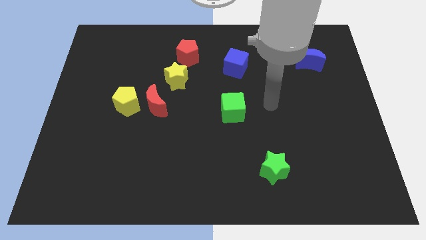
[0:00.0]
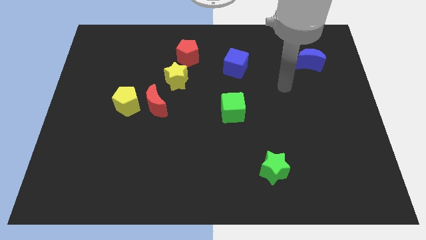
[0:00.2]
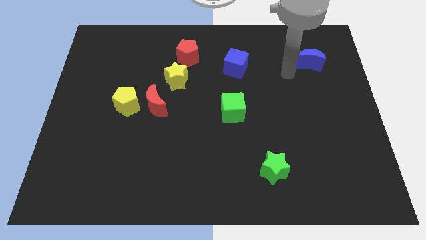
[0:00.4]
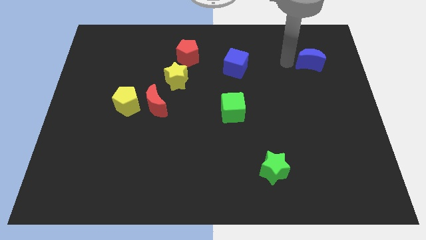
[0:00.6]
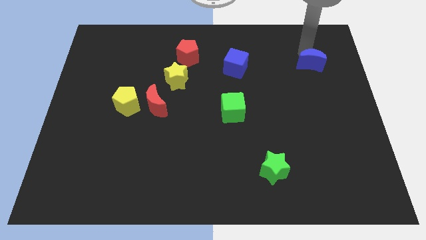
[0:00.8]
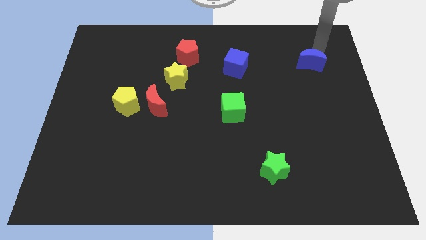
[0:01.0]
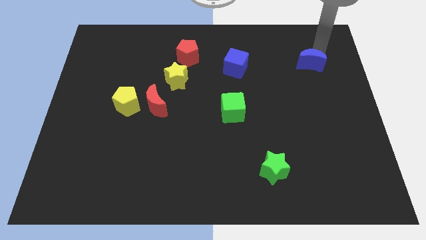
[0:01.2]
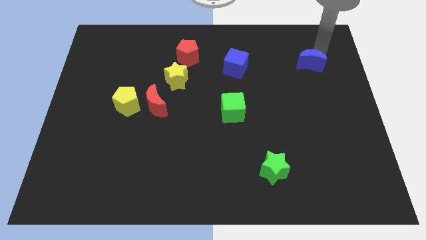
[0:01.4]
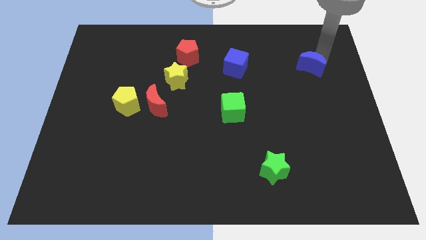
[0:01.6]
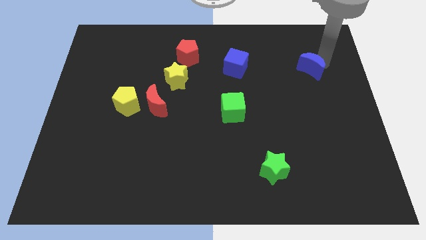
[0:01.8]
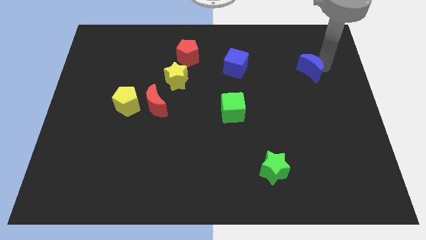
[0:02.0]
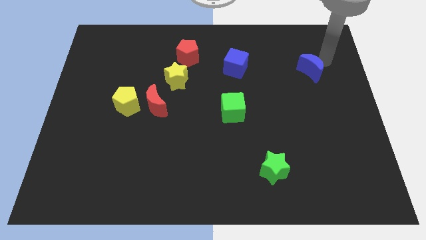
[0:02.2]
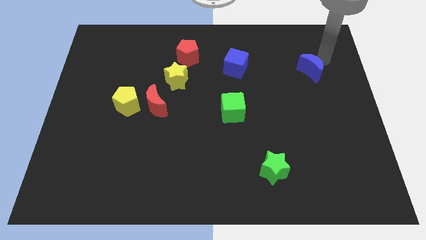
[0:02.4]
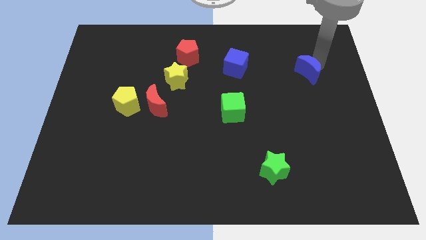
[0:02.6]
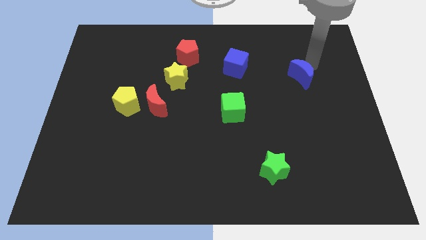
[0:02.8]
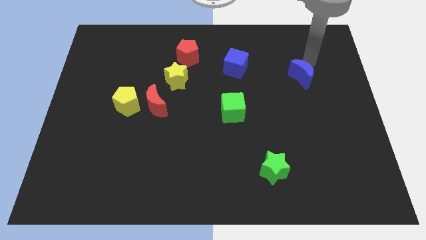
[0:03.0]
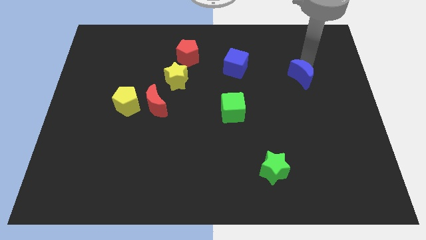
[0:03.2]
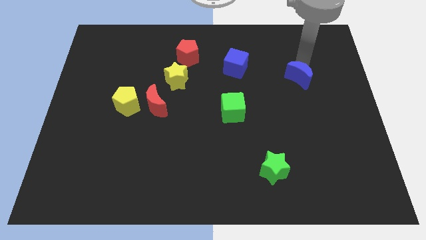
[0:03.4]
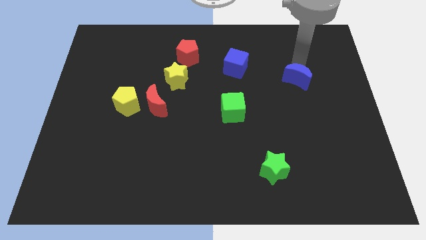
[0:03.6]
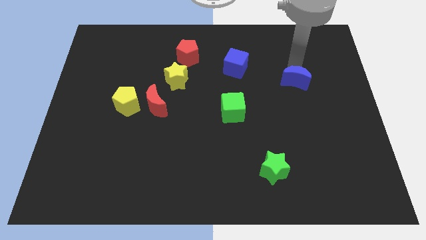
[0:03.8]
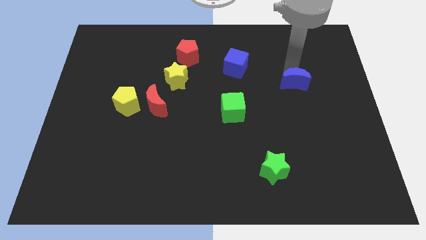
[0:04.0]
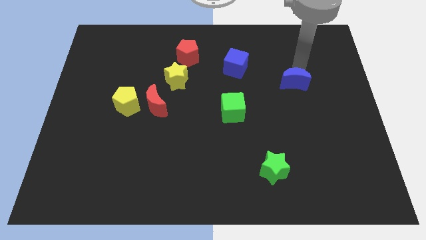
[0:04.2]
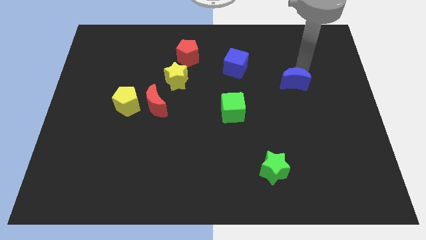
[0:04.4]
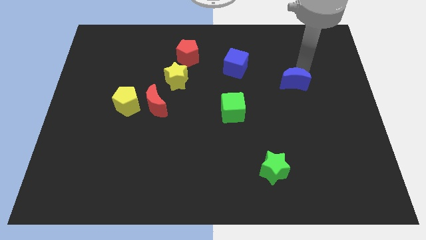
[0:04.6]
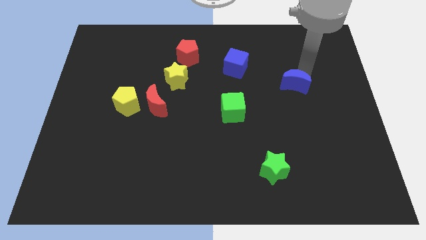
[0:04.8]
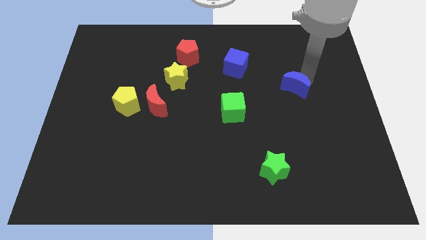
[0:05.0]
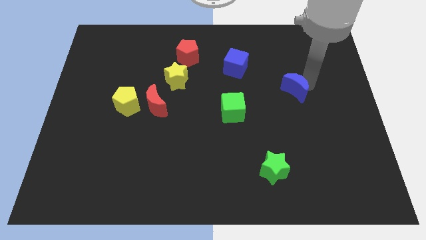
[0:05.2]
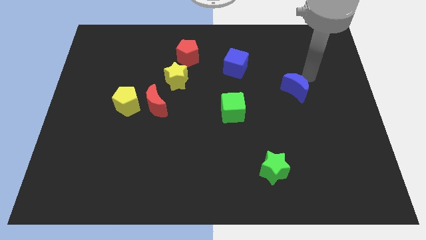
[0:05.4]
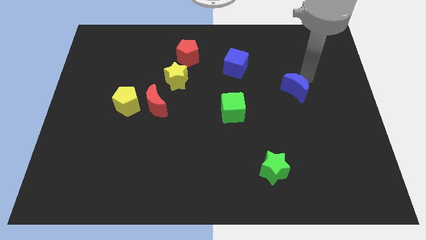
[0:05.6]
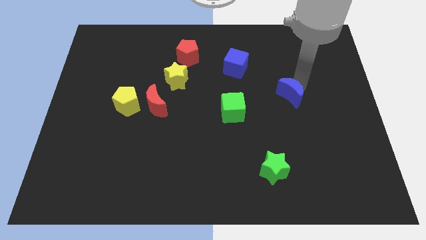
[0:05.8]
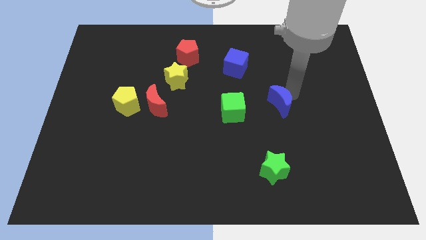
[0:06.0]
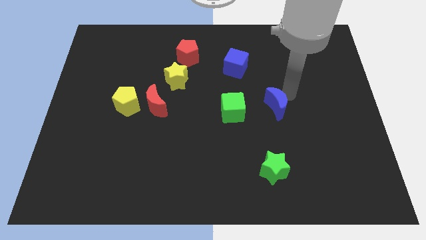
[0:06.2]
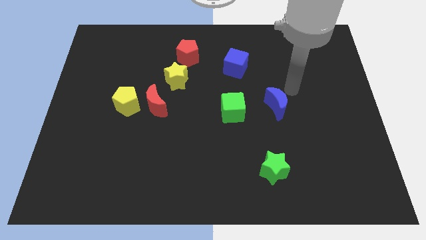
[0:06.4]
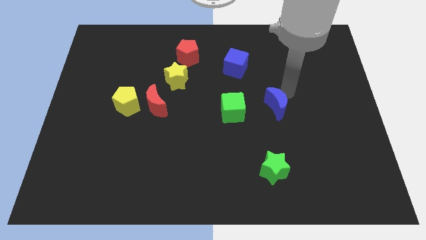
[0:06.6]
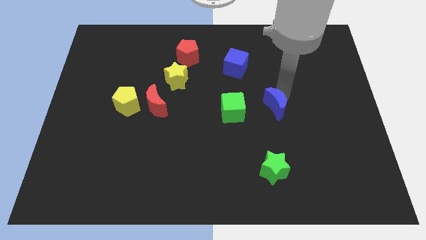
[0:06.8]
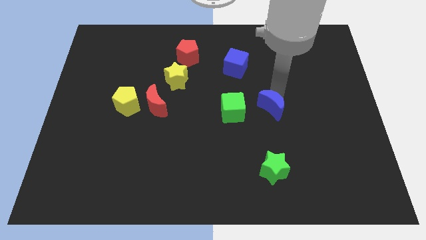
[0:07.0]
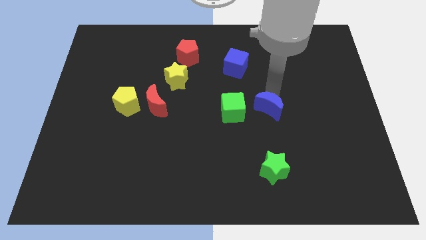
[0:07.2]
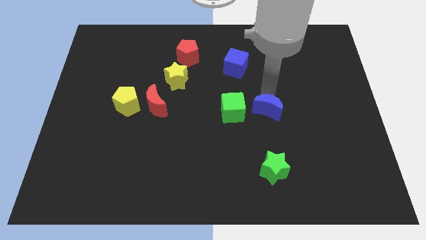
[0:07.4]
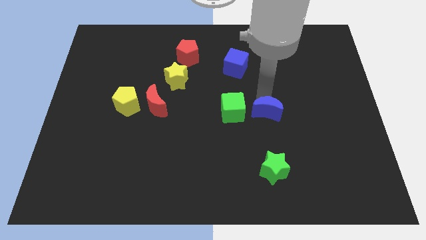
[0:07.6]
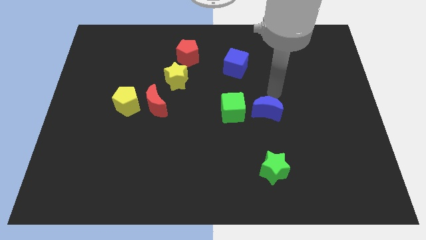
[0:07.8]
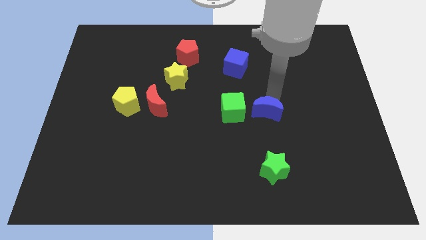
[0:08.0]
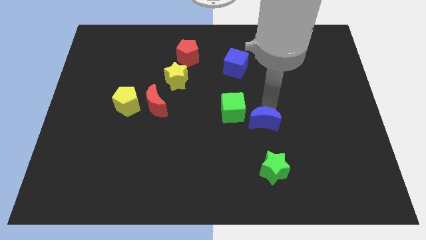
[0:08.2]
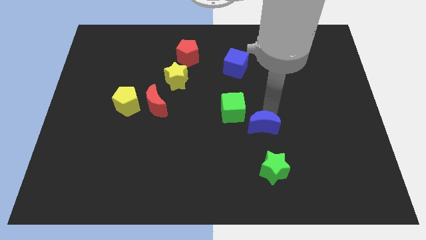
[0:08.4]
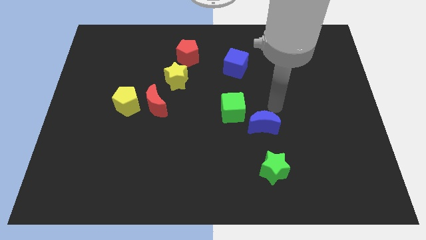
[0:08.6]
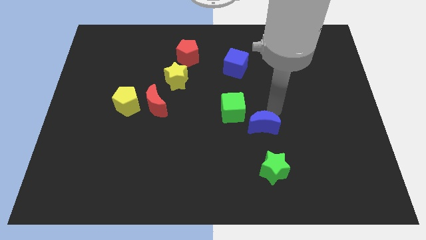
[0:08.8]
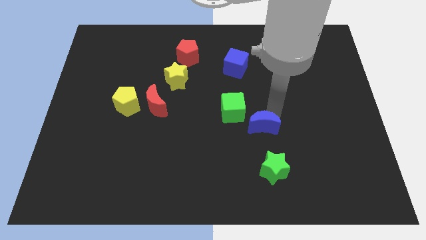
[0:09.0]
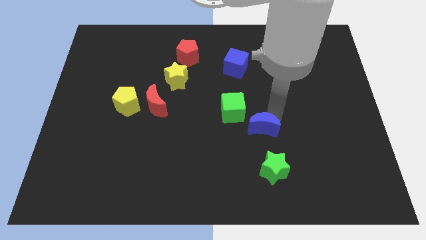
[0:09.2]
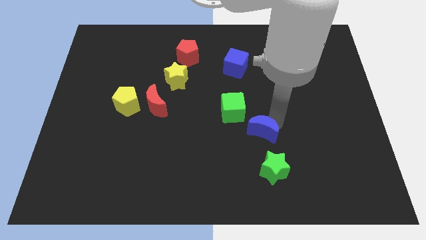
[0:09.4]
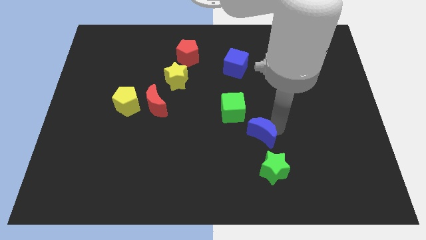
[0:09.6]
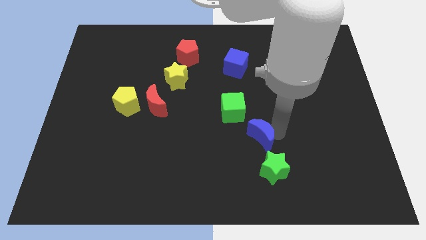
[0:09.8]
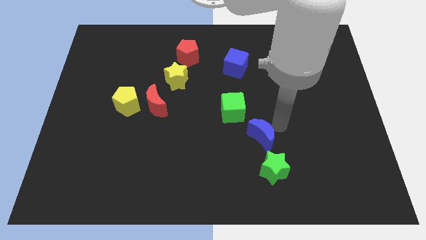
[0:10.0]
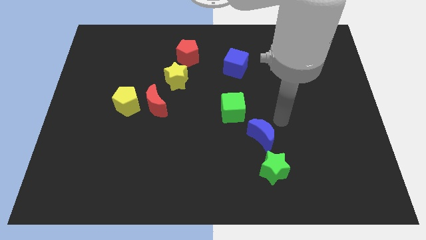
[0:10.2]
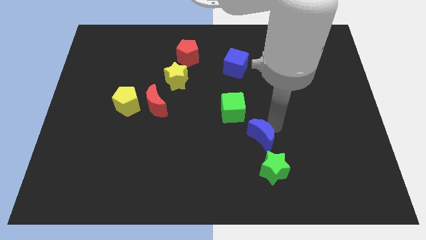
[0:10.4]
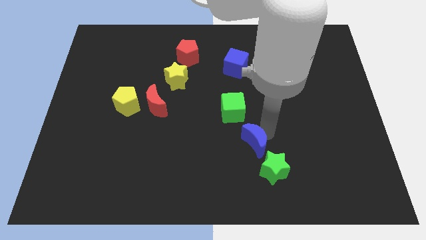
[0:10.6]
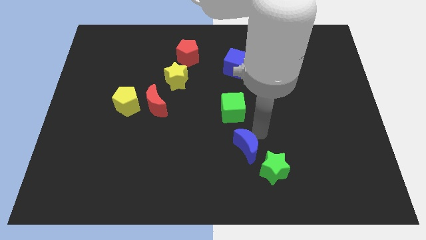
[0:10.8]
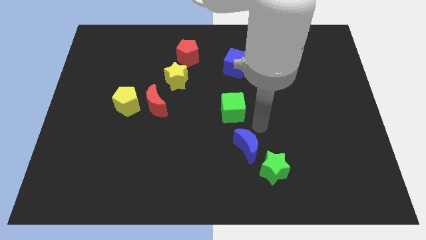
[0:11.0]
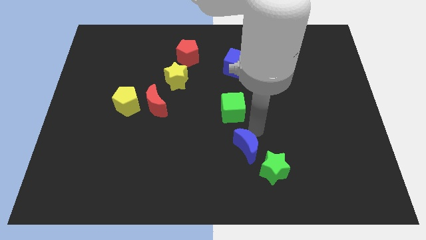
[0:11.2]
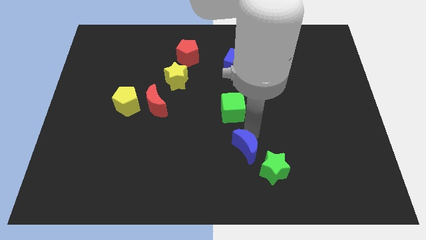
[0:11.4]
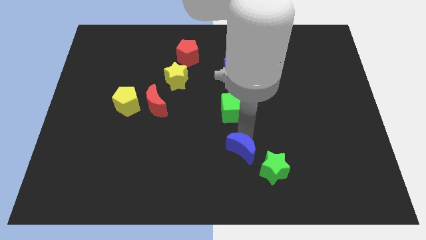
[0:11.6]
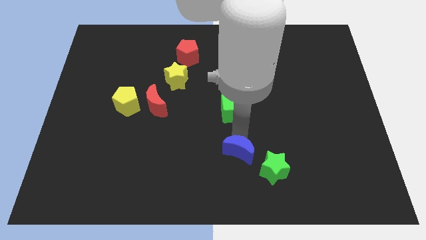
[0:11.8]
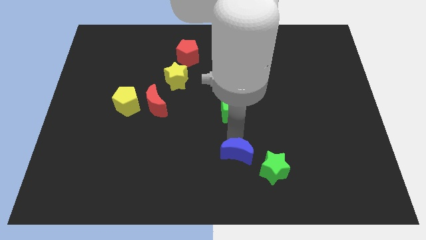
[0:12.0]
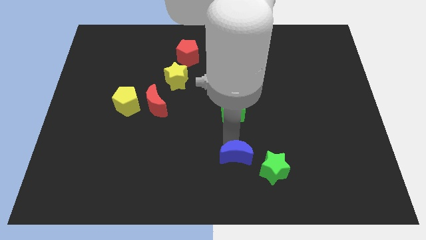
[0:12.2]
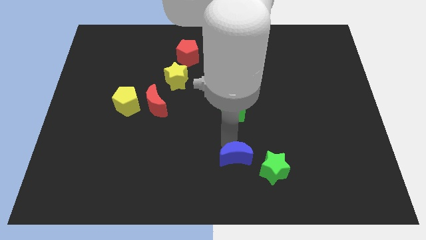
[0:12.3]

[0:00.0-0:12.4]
slide the blue moon to the bottom side
